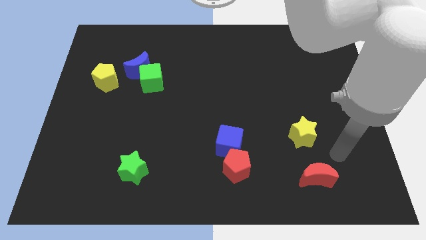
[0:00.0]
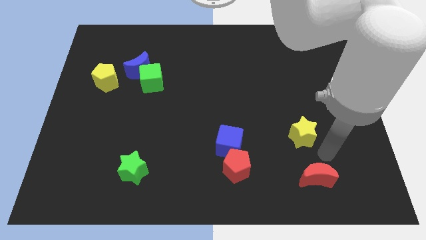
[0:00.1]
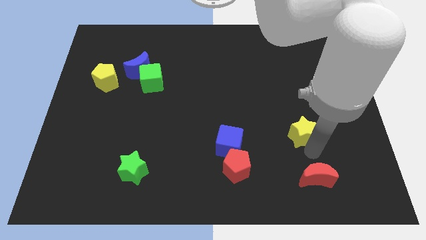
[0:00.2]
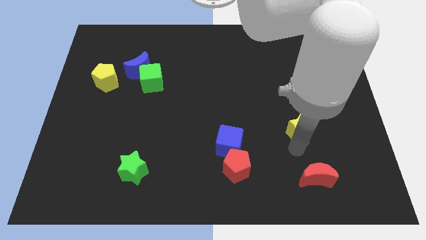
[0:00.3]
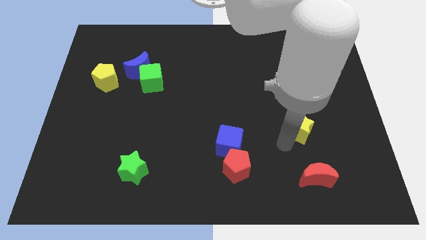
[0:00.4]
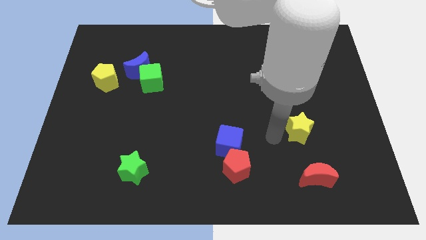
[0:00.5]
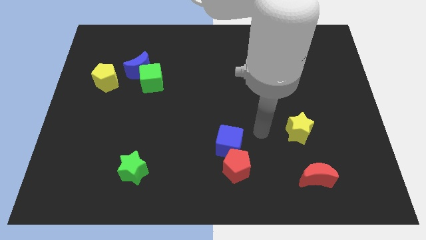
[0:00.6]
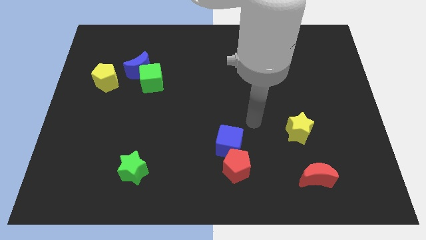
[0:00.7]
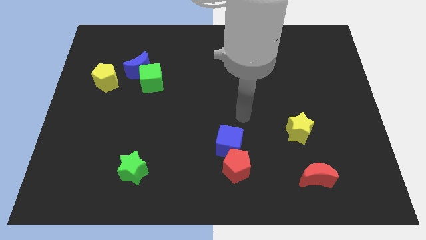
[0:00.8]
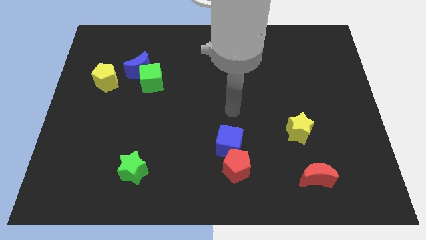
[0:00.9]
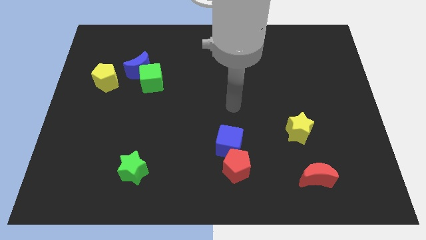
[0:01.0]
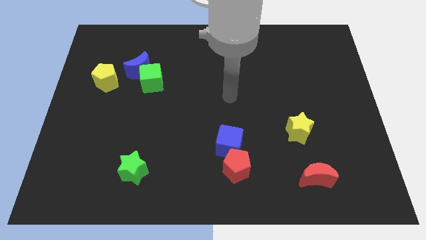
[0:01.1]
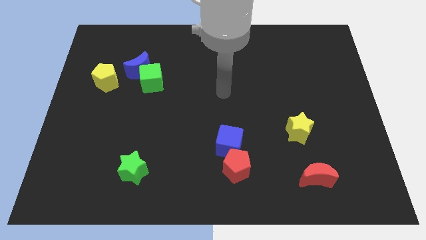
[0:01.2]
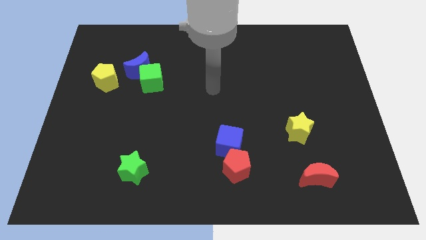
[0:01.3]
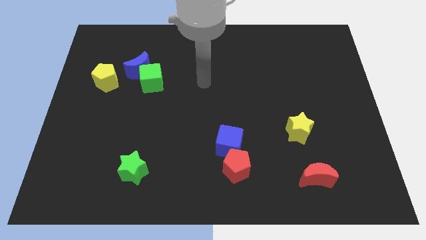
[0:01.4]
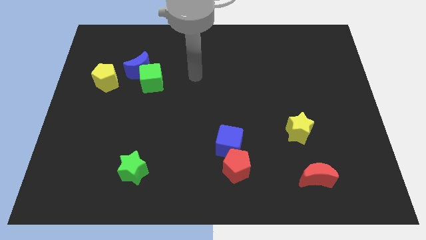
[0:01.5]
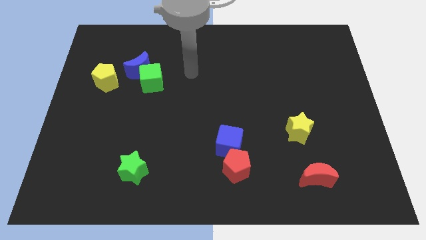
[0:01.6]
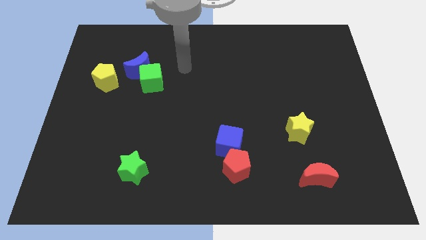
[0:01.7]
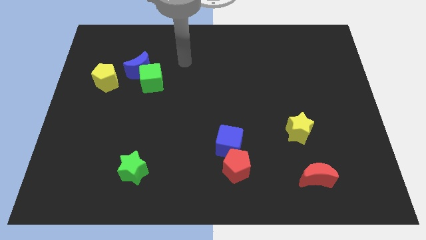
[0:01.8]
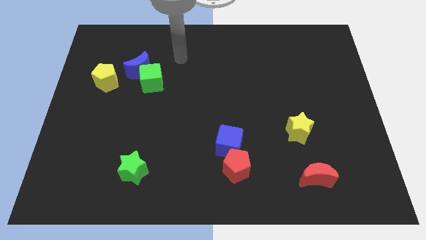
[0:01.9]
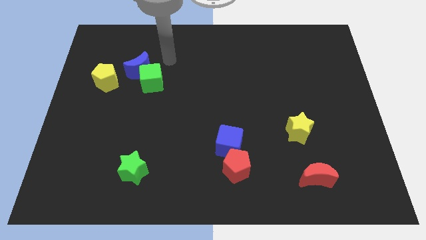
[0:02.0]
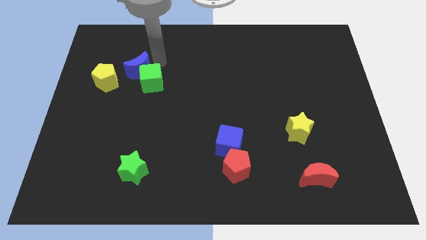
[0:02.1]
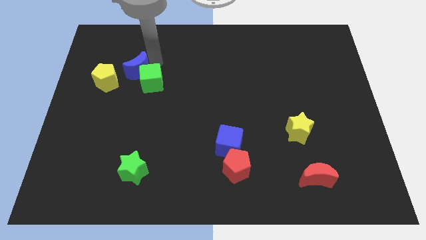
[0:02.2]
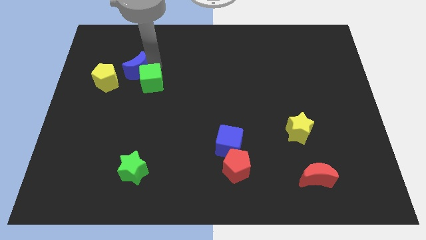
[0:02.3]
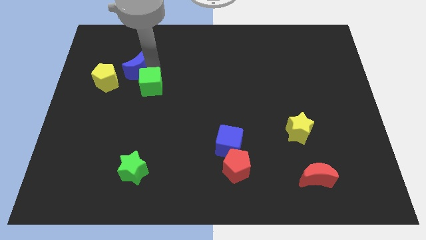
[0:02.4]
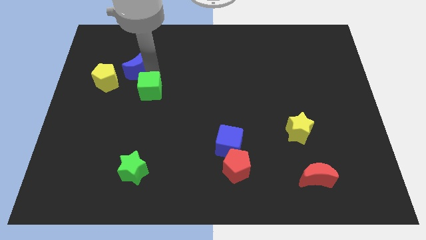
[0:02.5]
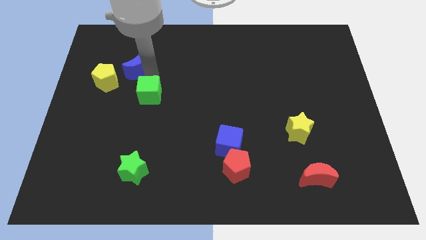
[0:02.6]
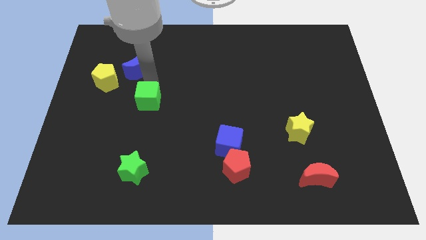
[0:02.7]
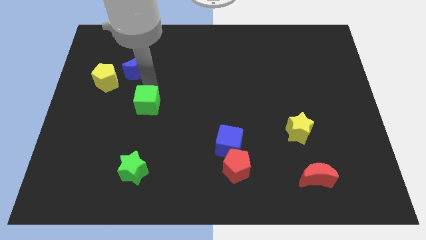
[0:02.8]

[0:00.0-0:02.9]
slightly push the green cube downwards

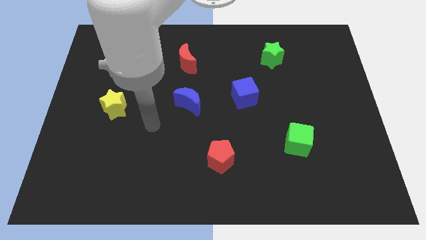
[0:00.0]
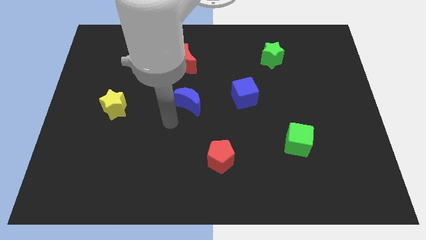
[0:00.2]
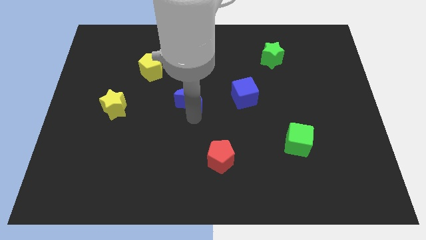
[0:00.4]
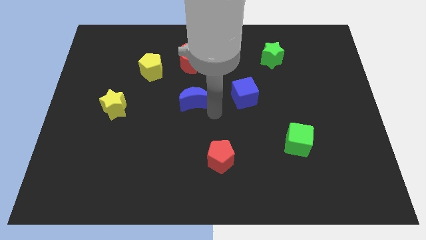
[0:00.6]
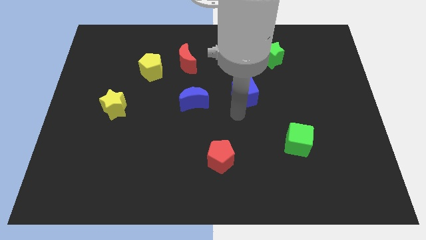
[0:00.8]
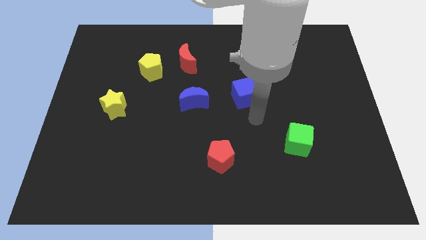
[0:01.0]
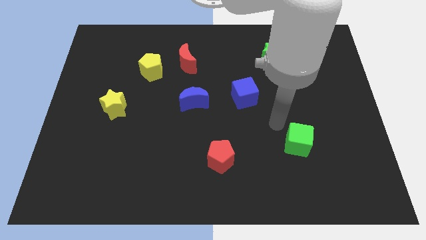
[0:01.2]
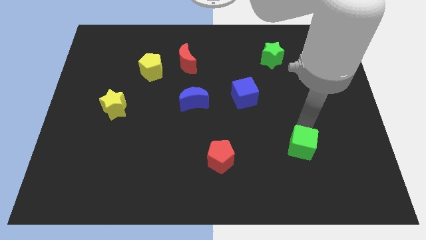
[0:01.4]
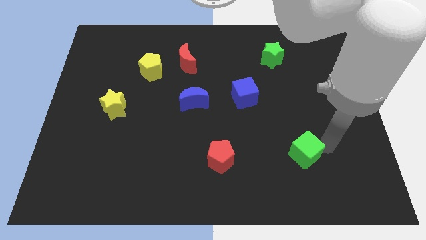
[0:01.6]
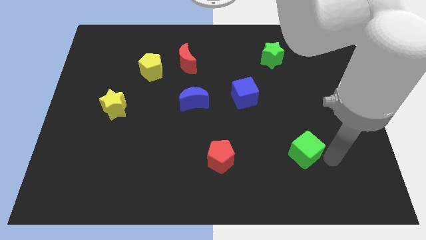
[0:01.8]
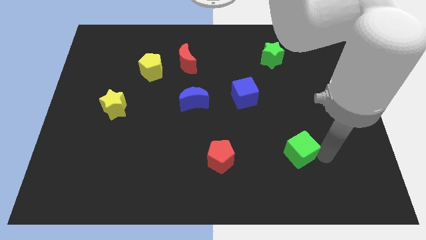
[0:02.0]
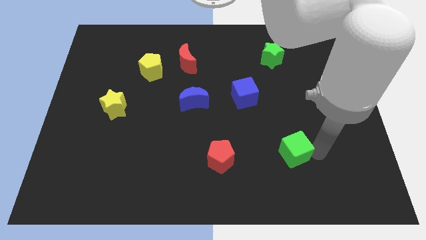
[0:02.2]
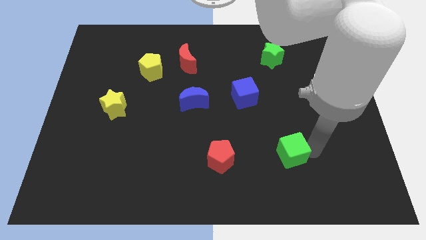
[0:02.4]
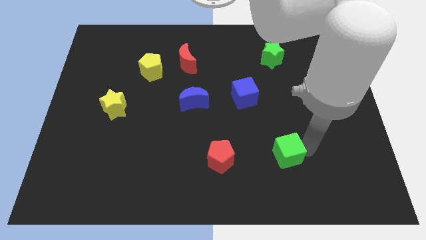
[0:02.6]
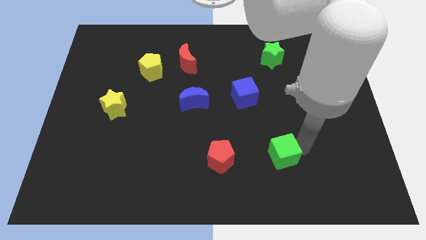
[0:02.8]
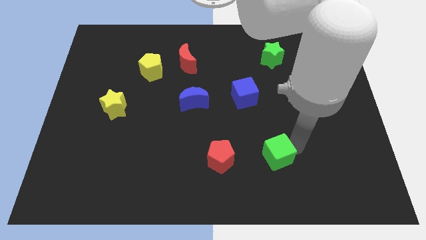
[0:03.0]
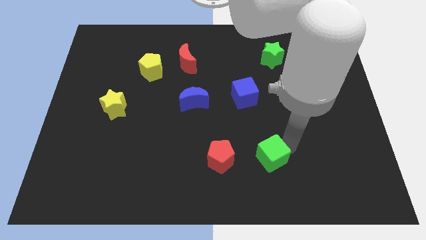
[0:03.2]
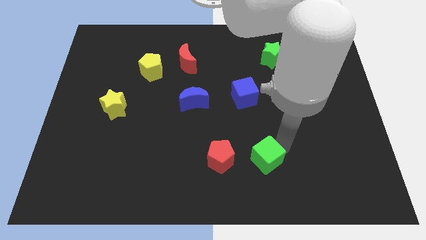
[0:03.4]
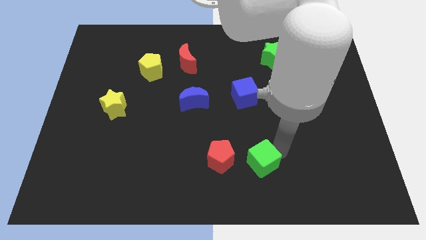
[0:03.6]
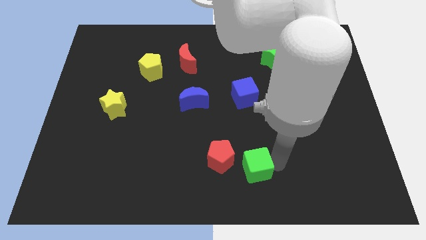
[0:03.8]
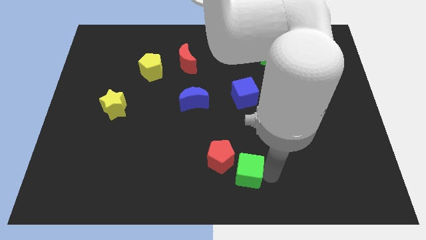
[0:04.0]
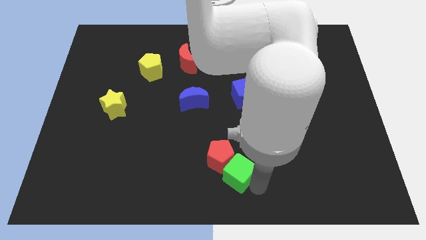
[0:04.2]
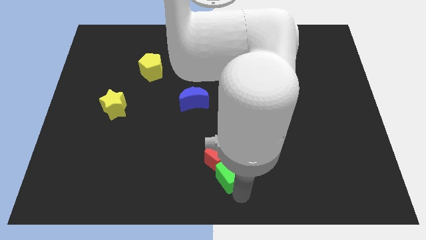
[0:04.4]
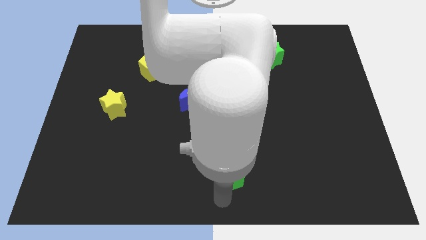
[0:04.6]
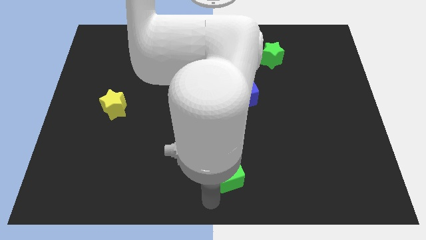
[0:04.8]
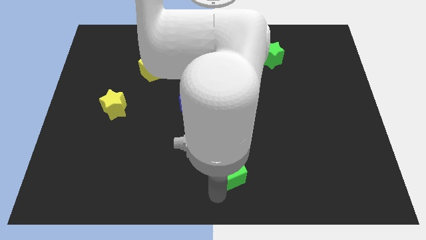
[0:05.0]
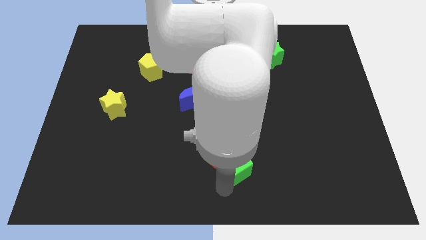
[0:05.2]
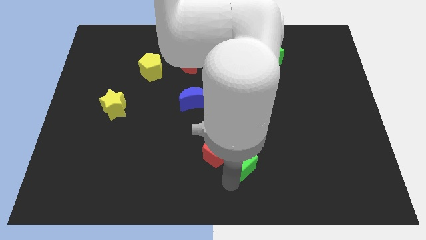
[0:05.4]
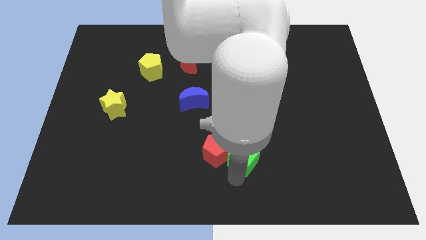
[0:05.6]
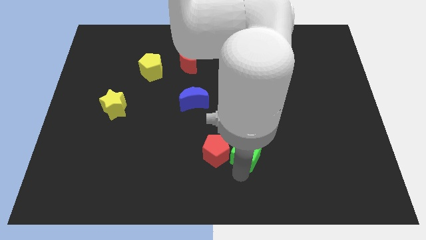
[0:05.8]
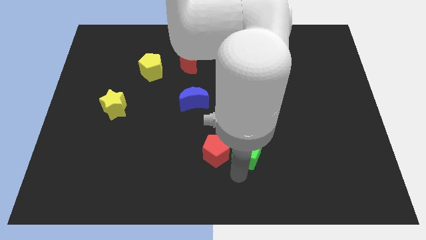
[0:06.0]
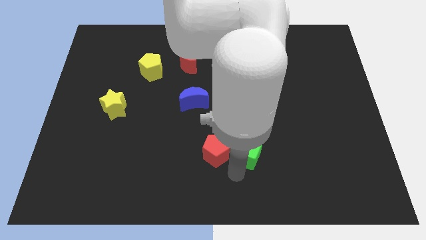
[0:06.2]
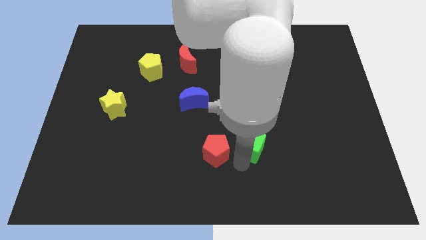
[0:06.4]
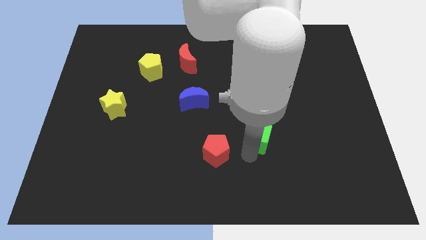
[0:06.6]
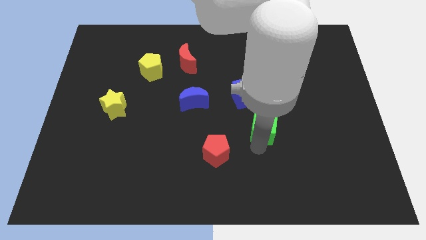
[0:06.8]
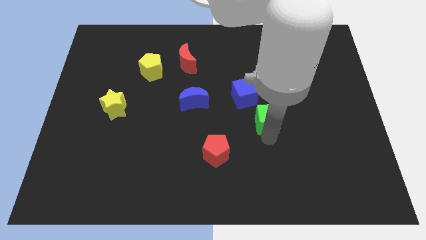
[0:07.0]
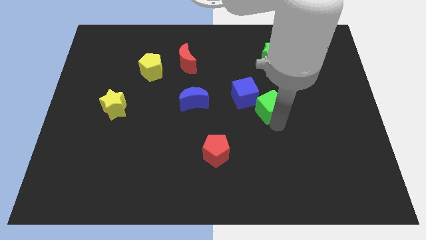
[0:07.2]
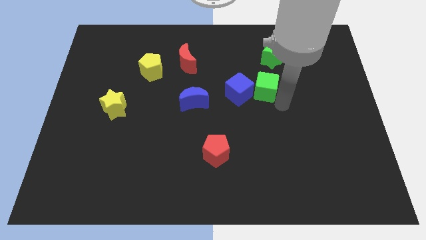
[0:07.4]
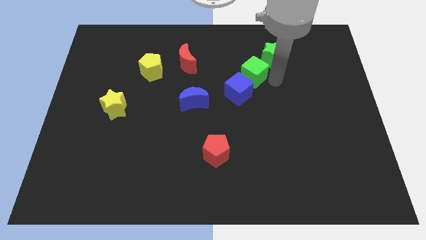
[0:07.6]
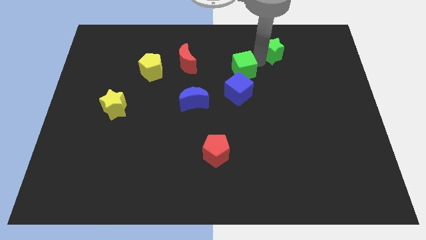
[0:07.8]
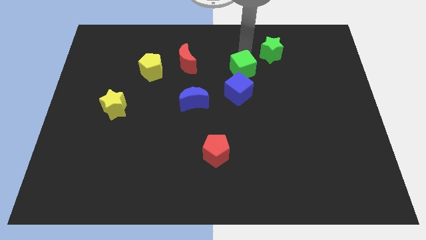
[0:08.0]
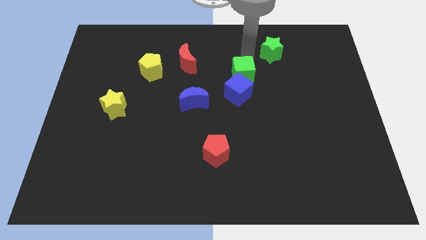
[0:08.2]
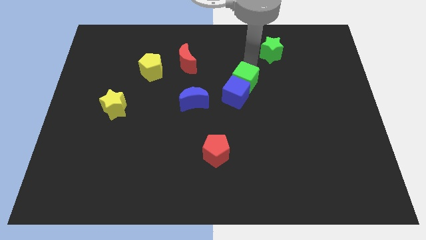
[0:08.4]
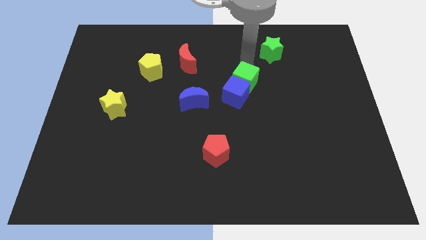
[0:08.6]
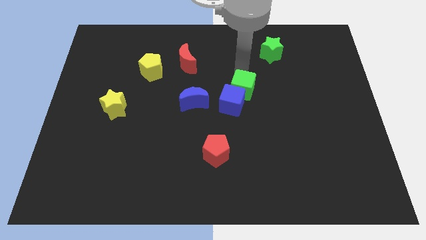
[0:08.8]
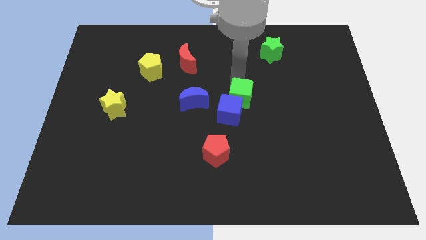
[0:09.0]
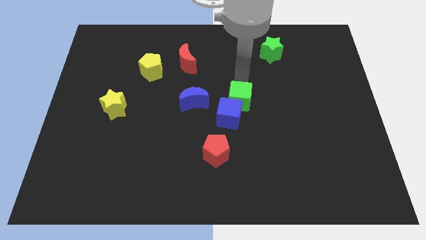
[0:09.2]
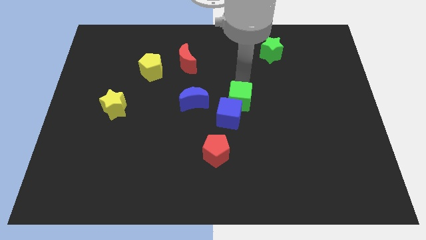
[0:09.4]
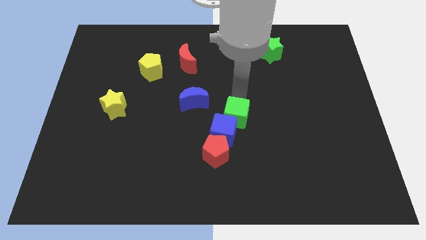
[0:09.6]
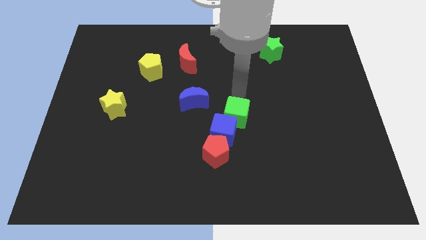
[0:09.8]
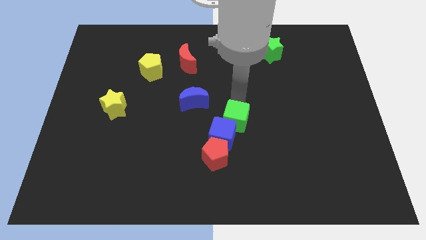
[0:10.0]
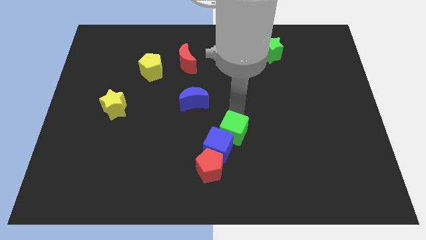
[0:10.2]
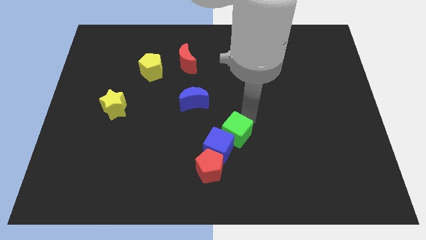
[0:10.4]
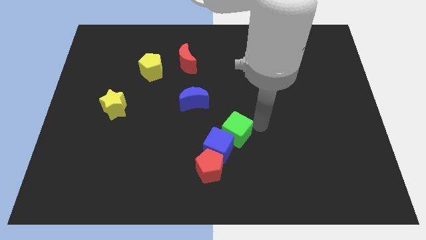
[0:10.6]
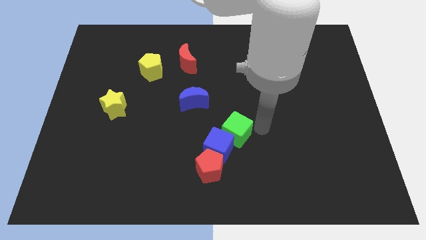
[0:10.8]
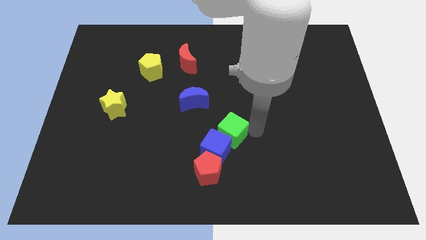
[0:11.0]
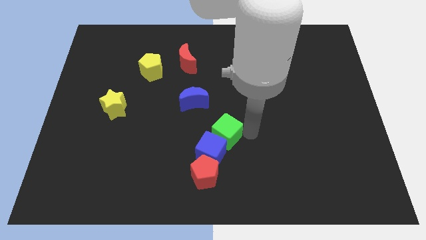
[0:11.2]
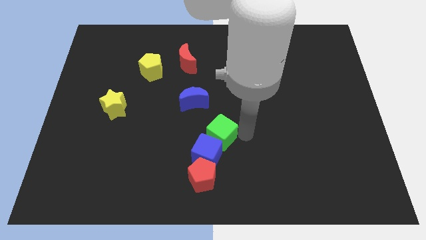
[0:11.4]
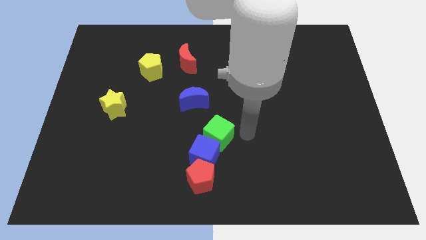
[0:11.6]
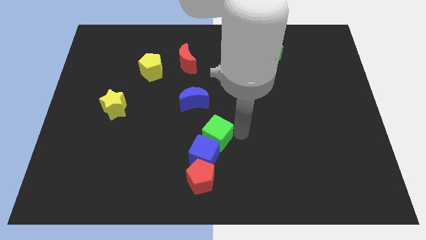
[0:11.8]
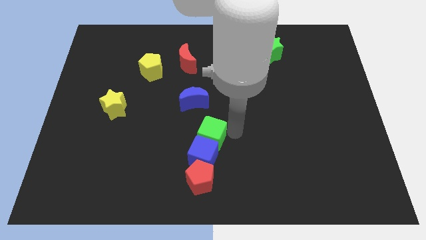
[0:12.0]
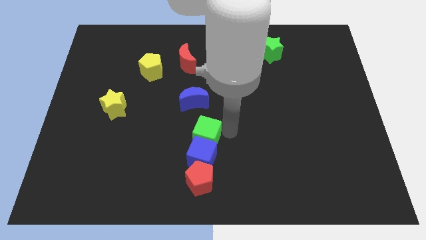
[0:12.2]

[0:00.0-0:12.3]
push the green cube to the left
